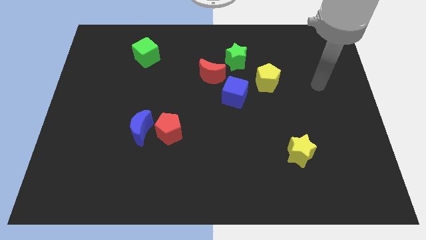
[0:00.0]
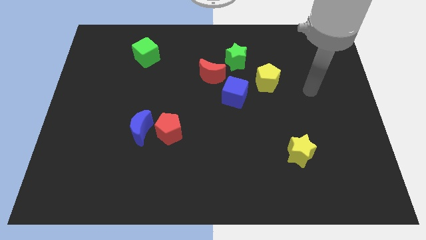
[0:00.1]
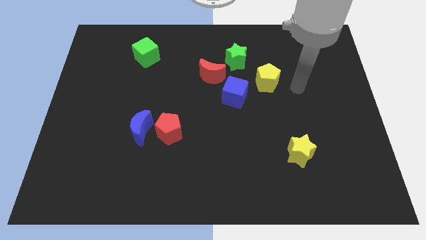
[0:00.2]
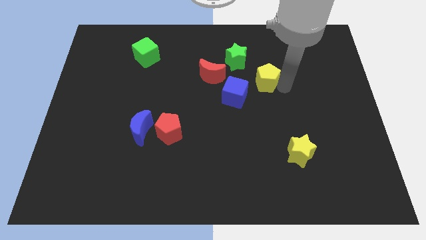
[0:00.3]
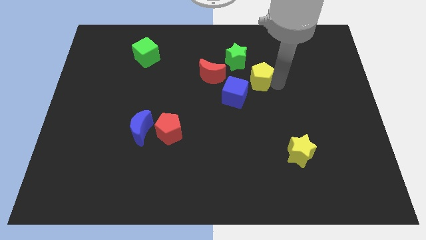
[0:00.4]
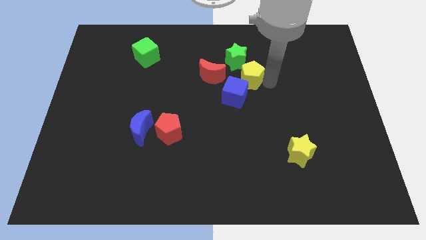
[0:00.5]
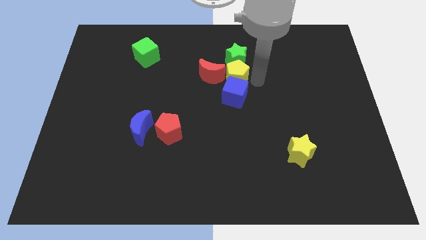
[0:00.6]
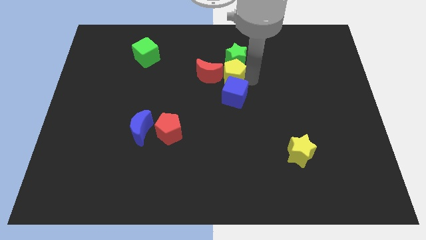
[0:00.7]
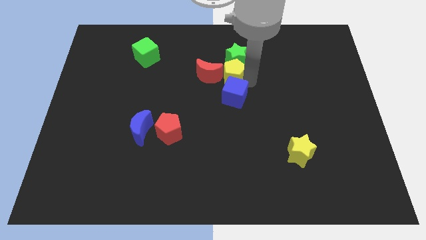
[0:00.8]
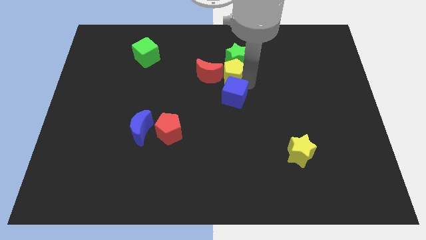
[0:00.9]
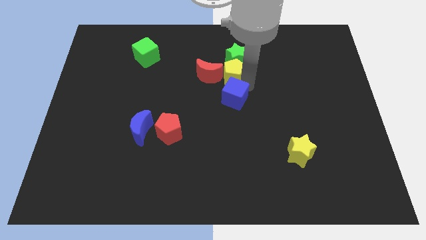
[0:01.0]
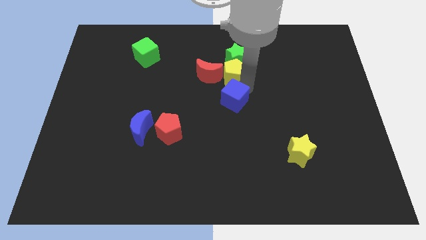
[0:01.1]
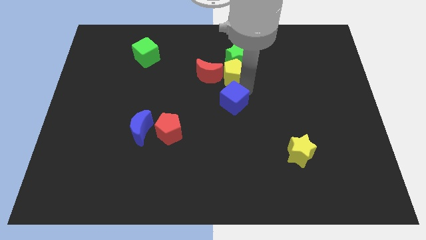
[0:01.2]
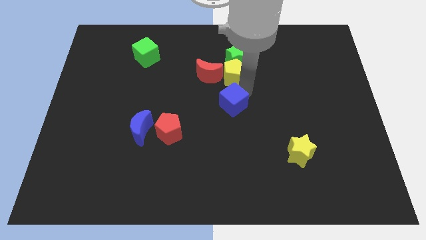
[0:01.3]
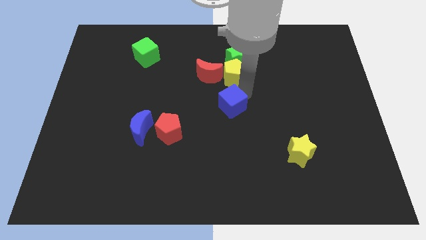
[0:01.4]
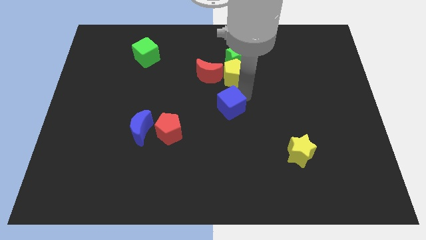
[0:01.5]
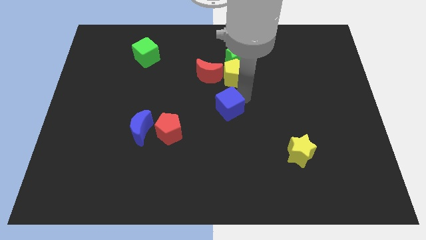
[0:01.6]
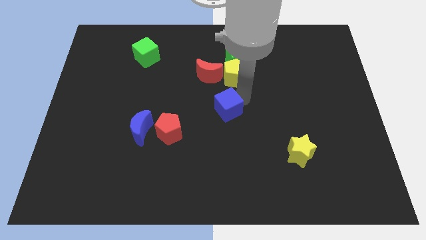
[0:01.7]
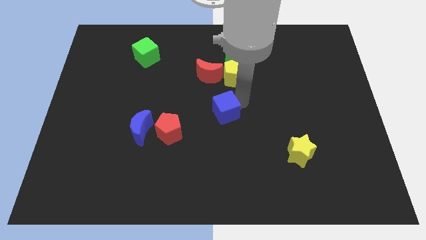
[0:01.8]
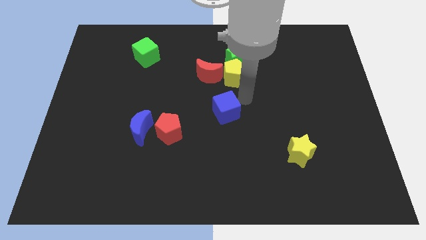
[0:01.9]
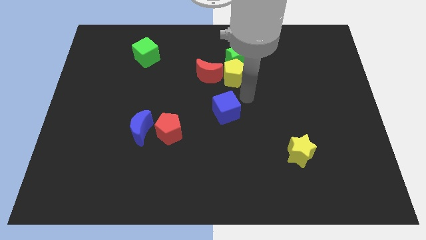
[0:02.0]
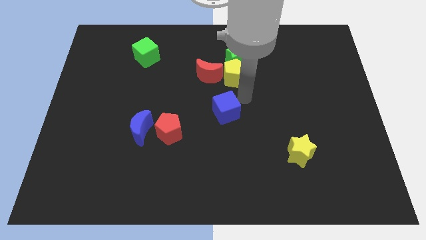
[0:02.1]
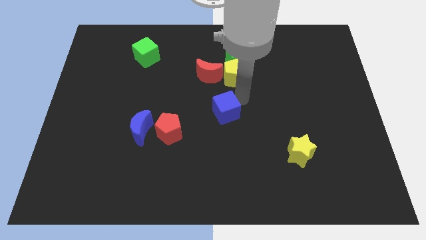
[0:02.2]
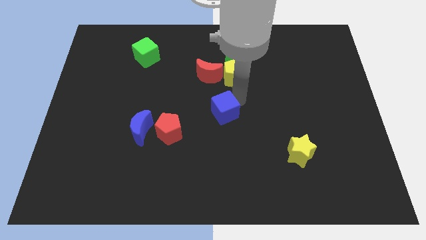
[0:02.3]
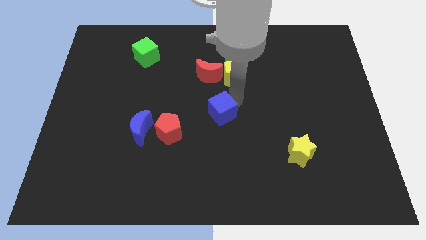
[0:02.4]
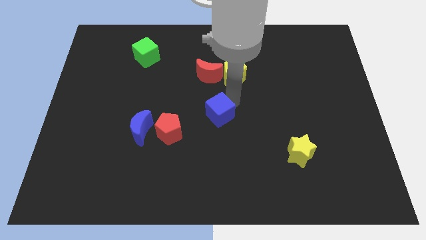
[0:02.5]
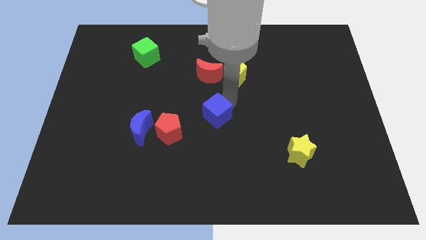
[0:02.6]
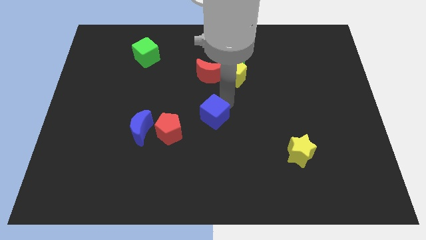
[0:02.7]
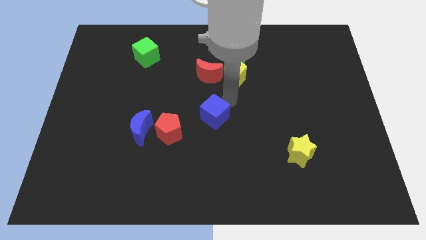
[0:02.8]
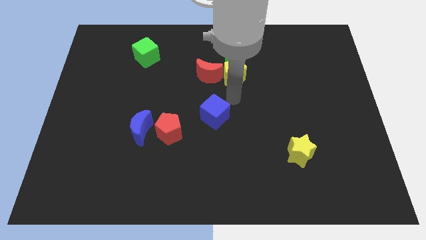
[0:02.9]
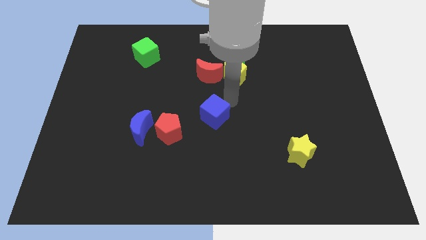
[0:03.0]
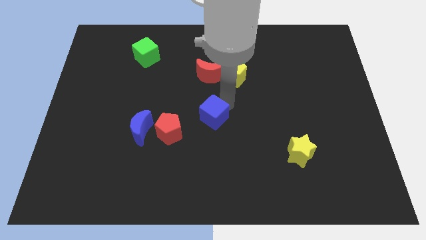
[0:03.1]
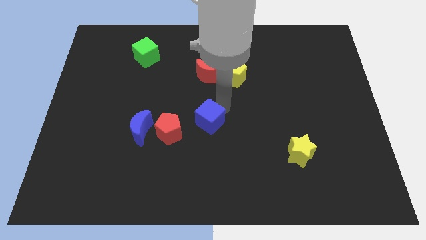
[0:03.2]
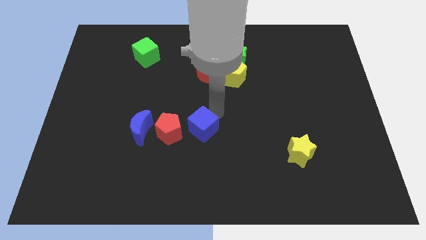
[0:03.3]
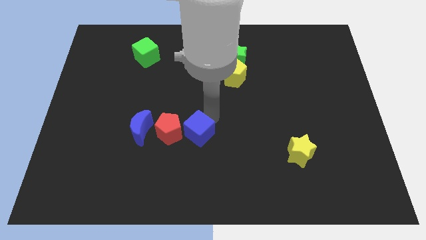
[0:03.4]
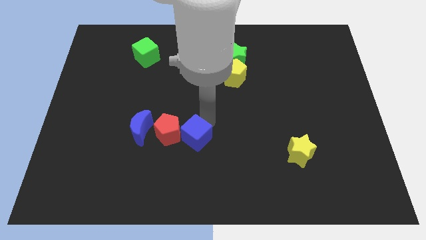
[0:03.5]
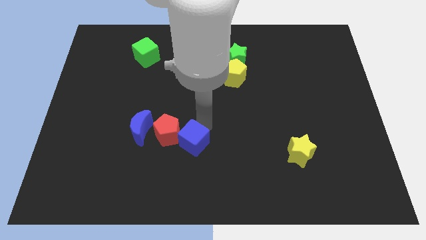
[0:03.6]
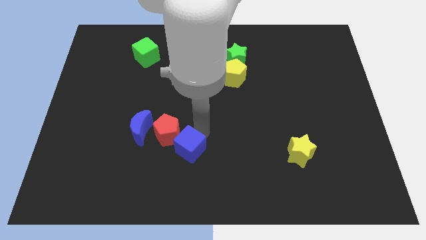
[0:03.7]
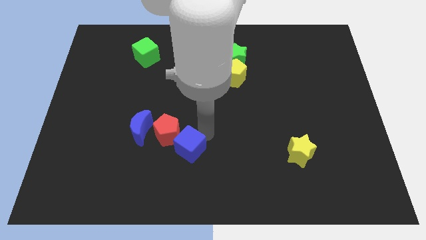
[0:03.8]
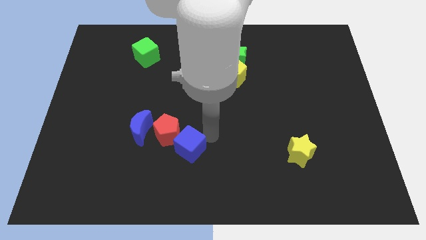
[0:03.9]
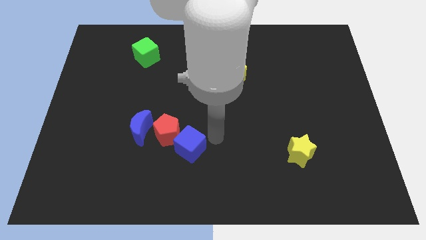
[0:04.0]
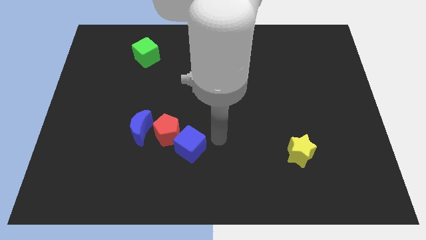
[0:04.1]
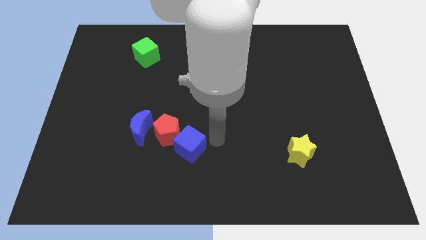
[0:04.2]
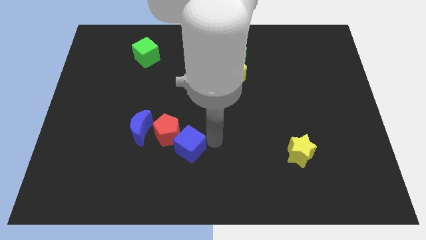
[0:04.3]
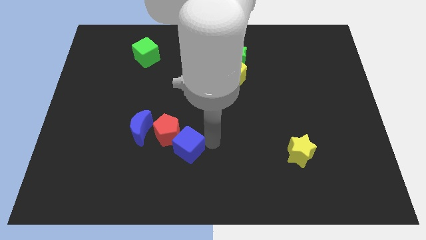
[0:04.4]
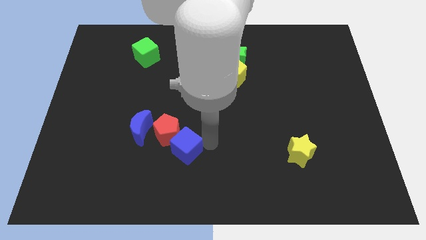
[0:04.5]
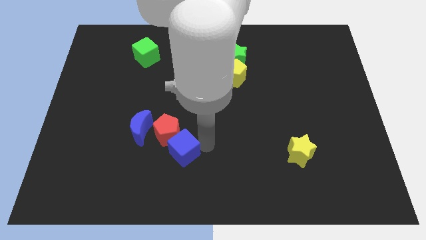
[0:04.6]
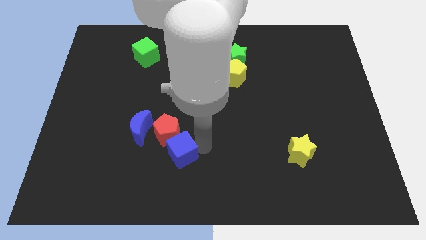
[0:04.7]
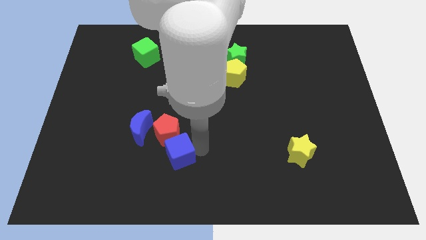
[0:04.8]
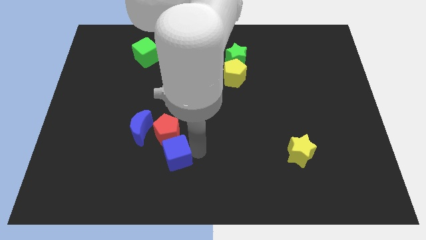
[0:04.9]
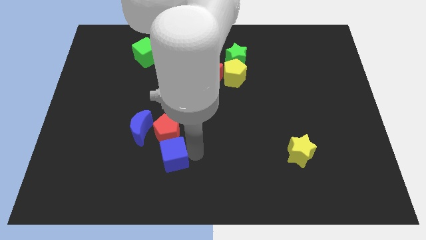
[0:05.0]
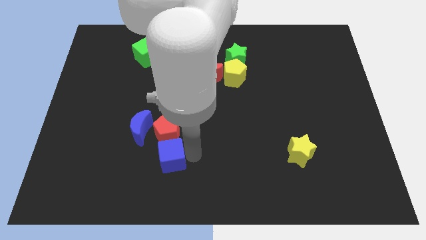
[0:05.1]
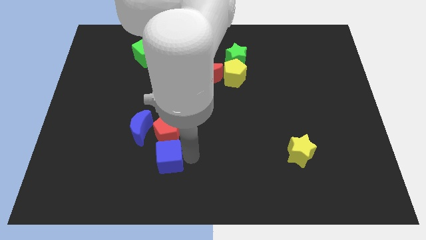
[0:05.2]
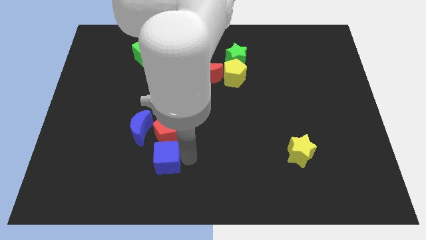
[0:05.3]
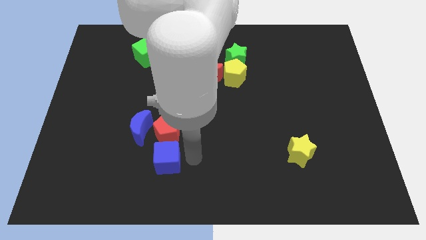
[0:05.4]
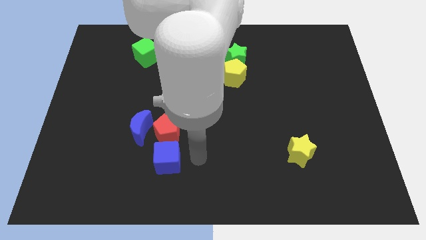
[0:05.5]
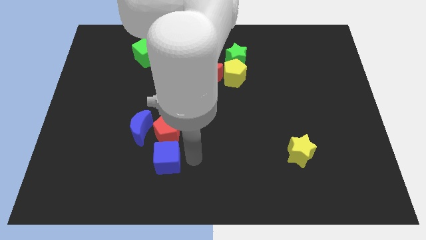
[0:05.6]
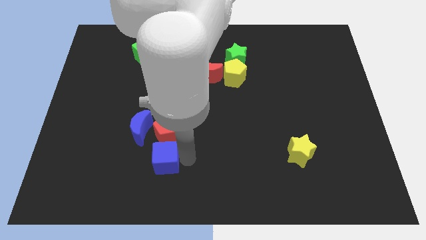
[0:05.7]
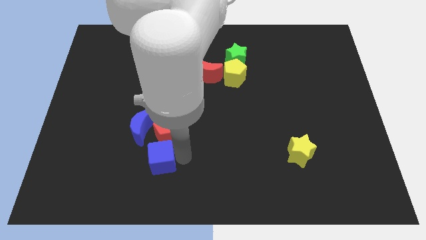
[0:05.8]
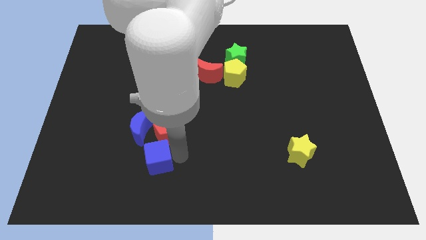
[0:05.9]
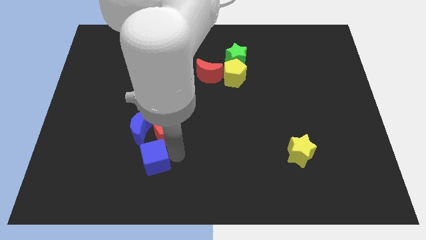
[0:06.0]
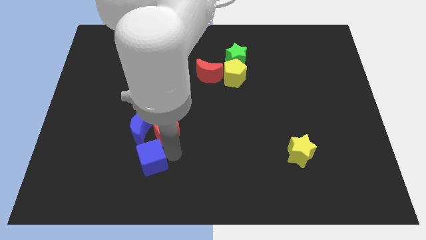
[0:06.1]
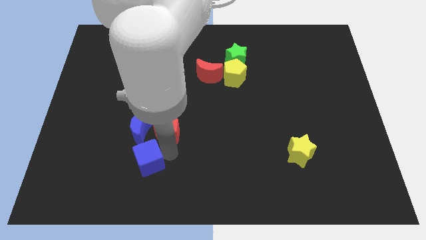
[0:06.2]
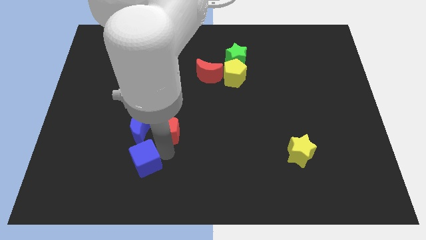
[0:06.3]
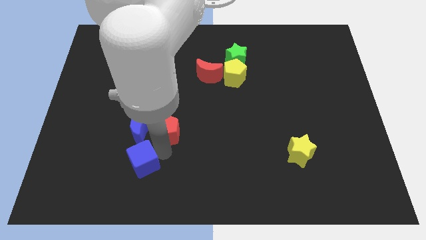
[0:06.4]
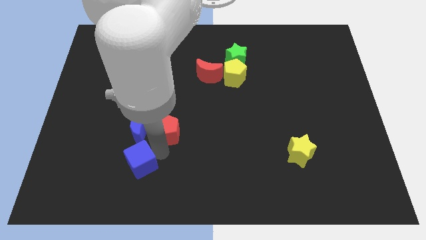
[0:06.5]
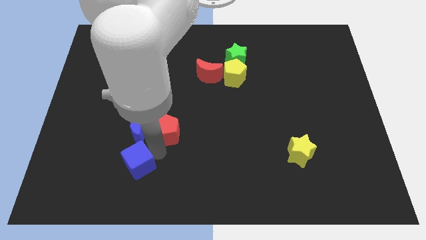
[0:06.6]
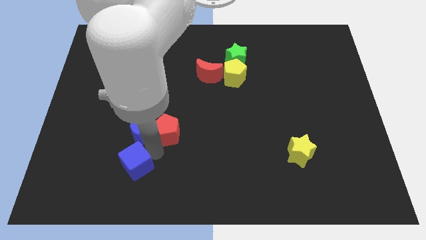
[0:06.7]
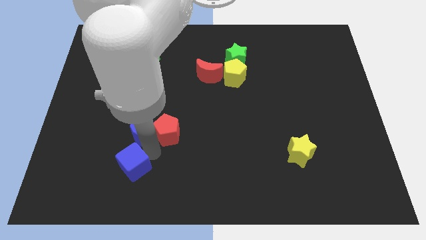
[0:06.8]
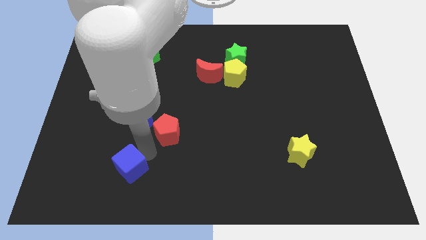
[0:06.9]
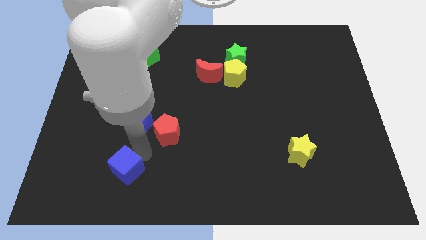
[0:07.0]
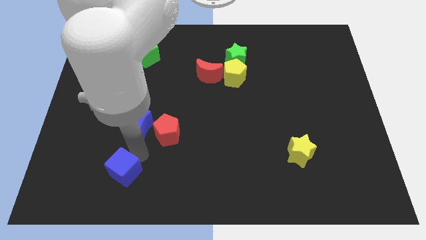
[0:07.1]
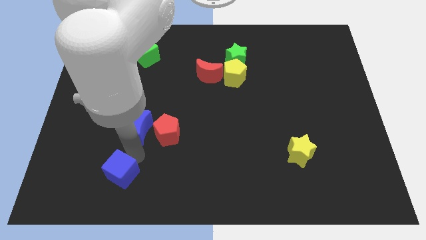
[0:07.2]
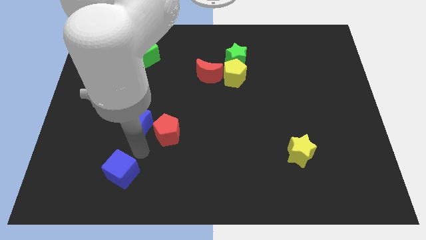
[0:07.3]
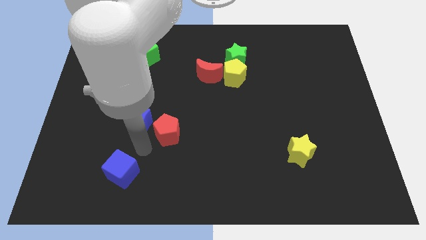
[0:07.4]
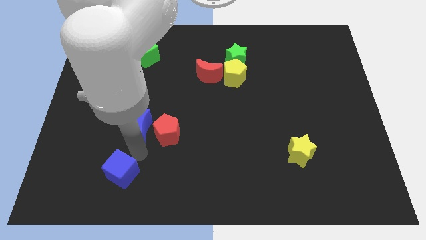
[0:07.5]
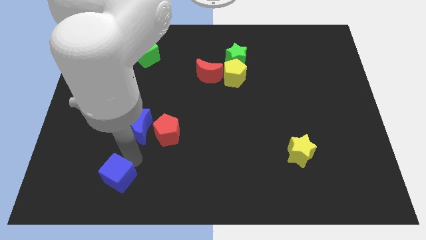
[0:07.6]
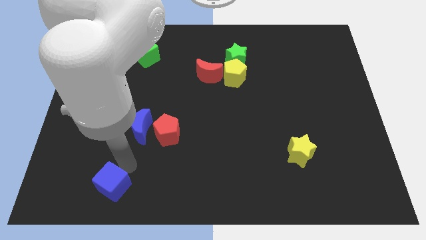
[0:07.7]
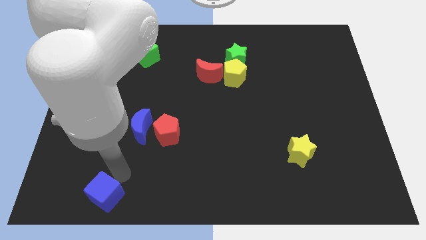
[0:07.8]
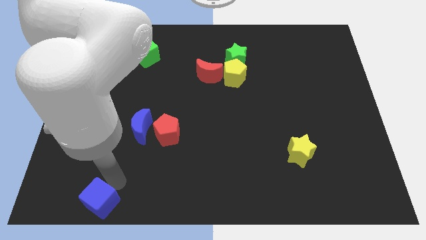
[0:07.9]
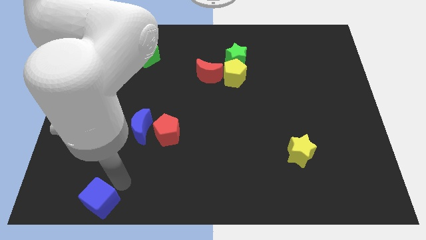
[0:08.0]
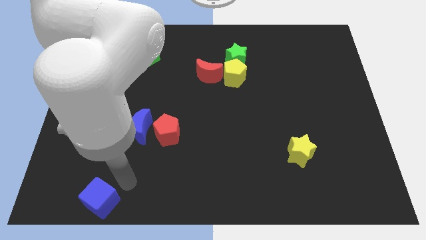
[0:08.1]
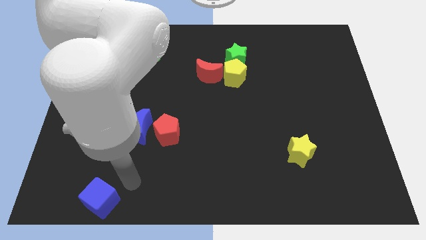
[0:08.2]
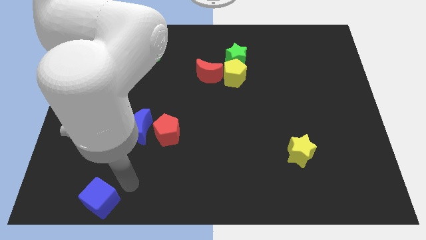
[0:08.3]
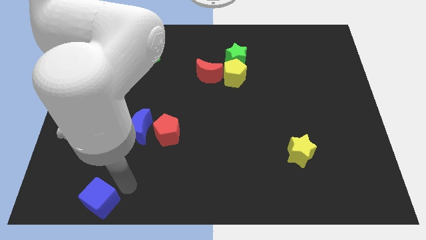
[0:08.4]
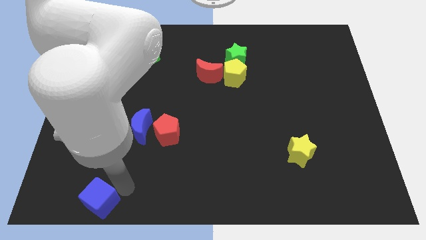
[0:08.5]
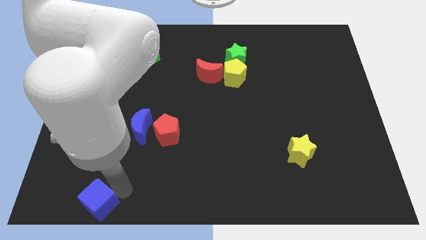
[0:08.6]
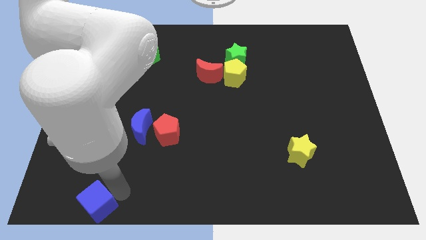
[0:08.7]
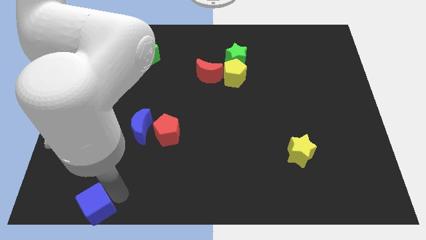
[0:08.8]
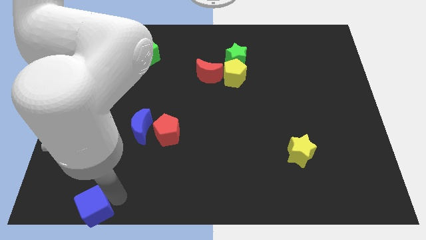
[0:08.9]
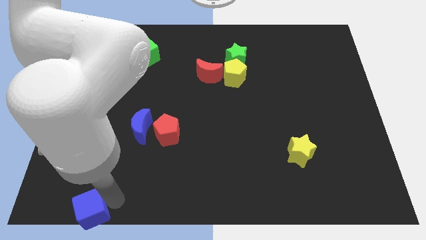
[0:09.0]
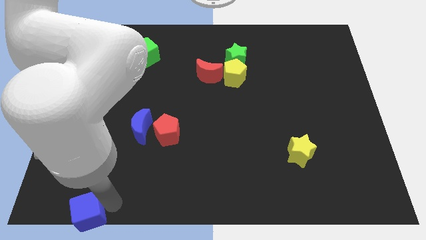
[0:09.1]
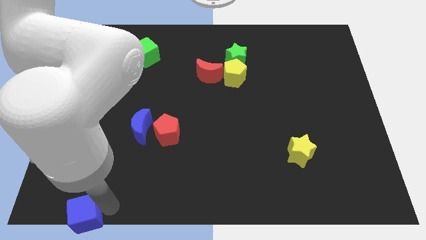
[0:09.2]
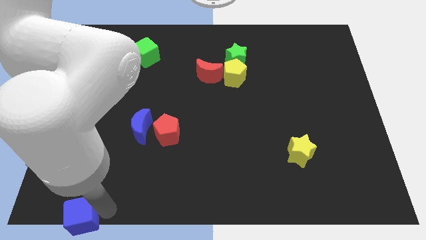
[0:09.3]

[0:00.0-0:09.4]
move the blue cube to the bottom left corner
